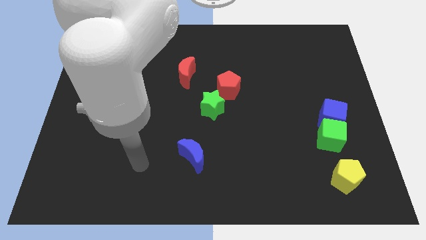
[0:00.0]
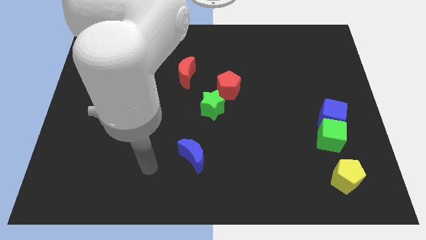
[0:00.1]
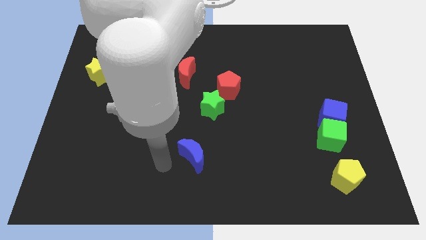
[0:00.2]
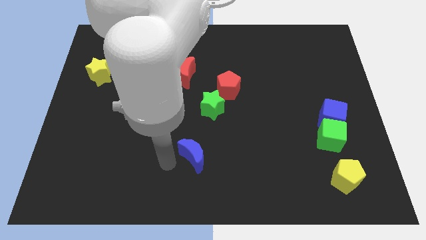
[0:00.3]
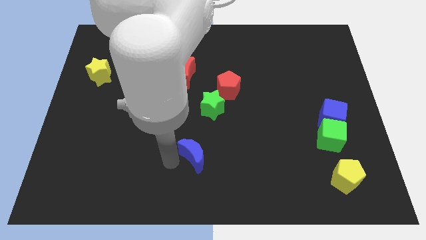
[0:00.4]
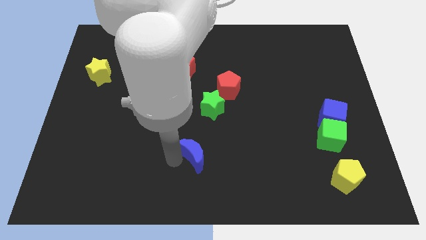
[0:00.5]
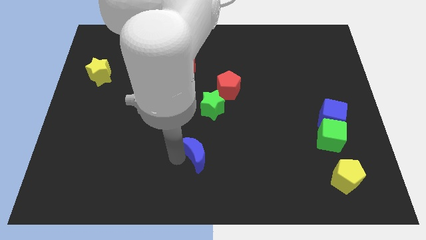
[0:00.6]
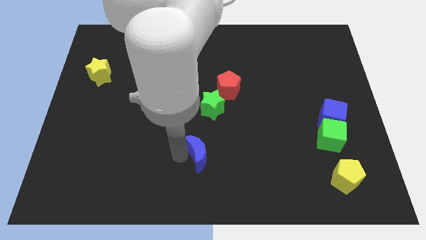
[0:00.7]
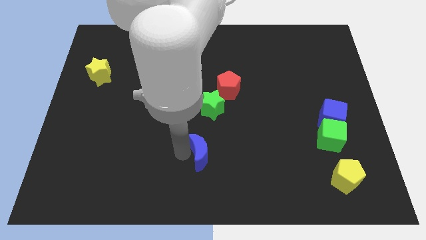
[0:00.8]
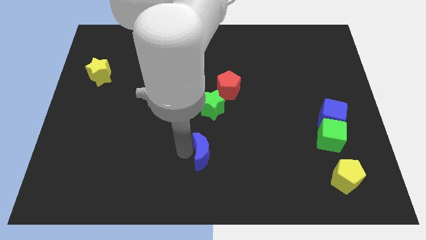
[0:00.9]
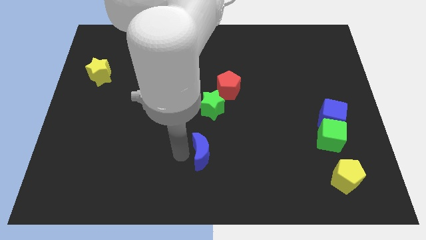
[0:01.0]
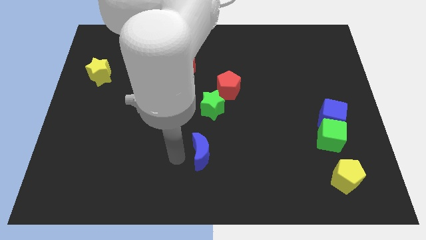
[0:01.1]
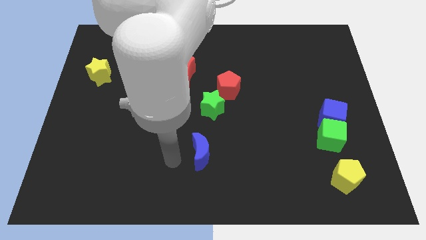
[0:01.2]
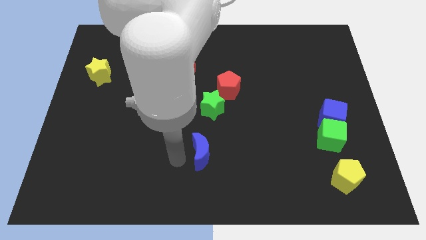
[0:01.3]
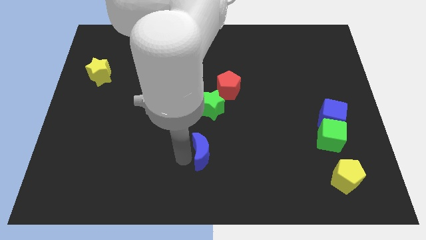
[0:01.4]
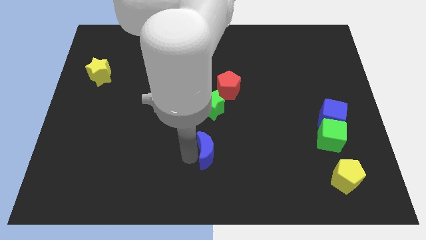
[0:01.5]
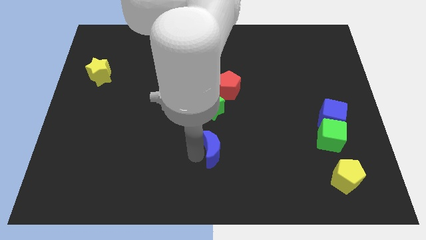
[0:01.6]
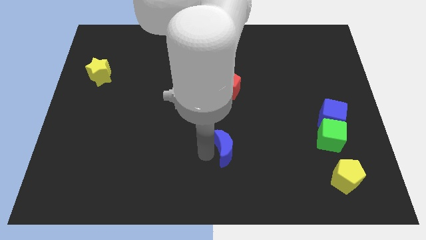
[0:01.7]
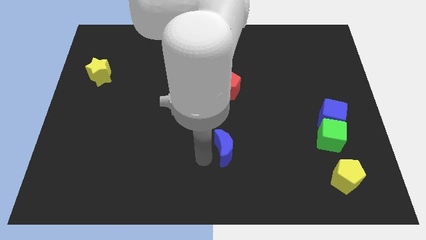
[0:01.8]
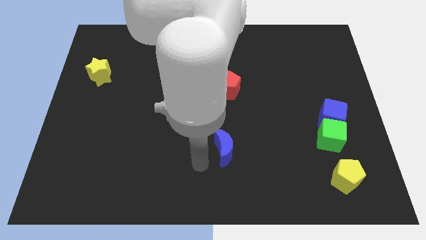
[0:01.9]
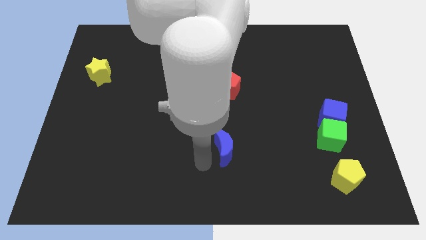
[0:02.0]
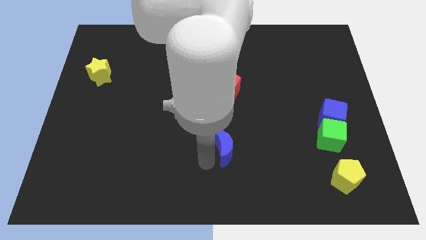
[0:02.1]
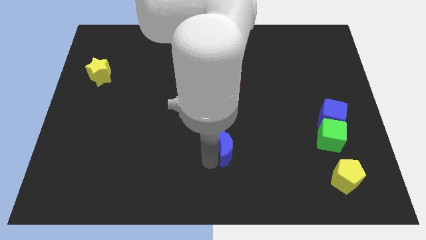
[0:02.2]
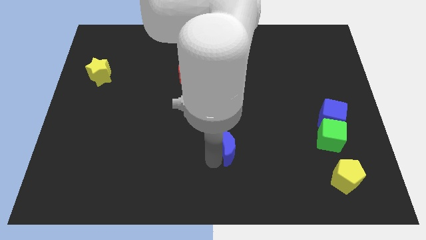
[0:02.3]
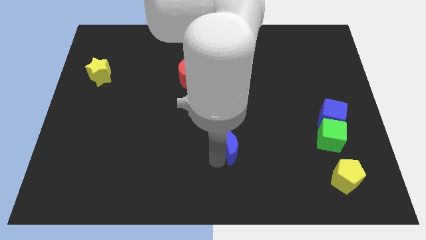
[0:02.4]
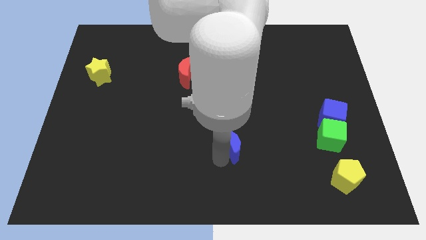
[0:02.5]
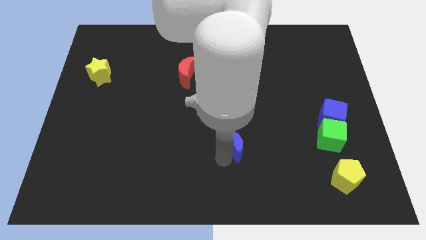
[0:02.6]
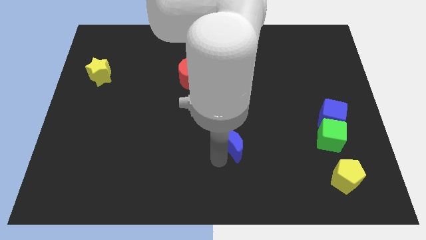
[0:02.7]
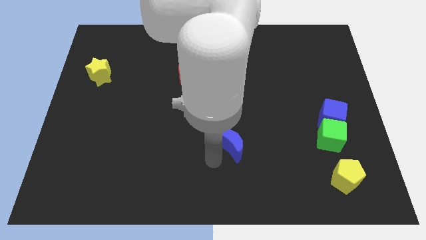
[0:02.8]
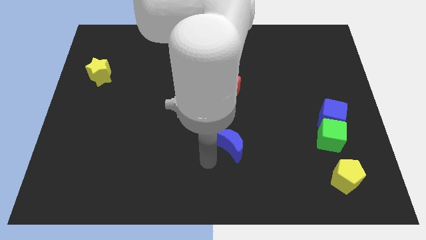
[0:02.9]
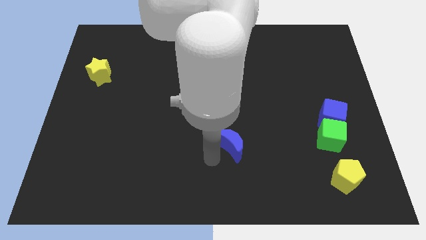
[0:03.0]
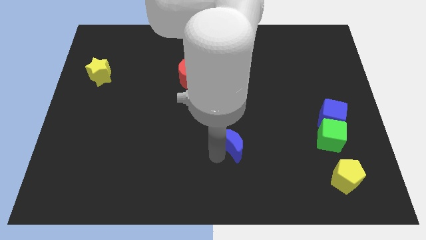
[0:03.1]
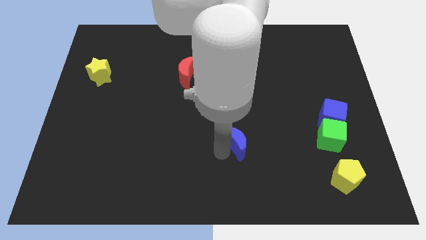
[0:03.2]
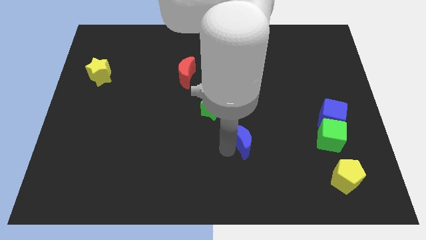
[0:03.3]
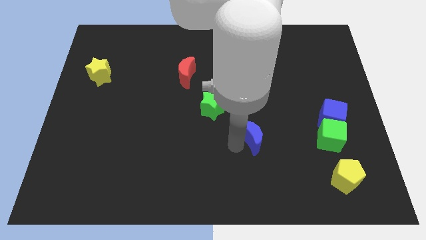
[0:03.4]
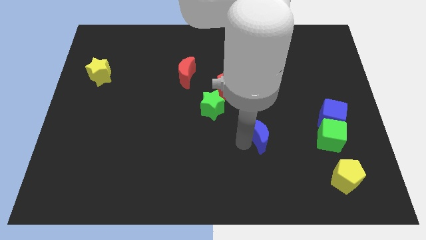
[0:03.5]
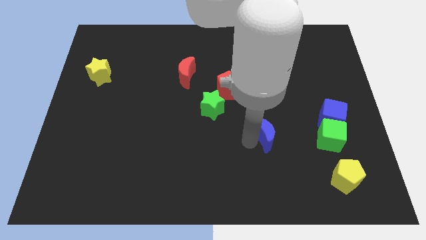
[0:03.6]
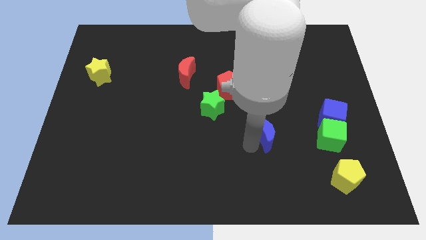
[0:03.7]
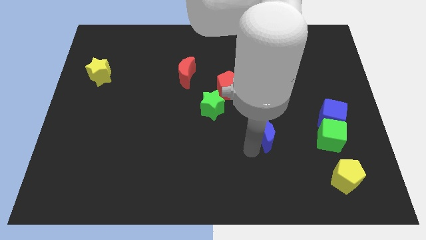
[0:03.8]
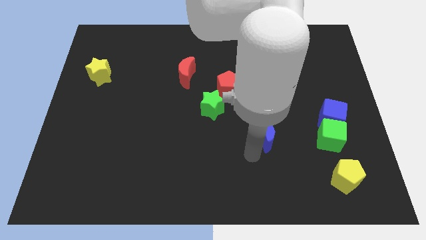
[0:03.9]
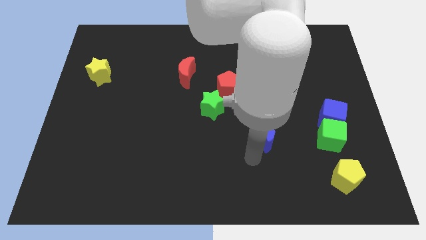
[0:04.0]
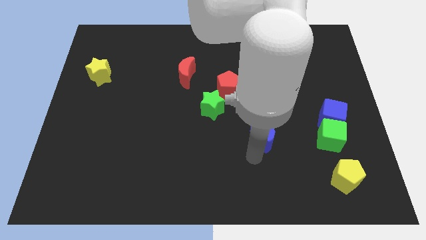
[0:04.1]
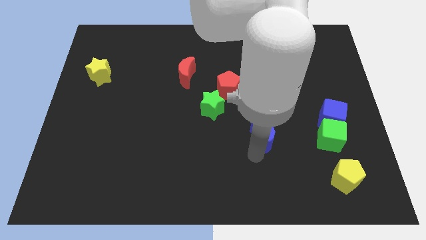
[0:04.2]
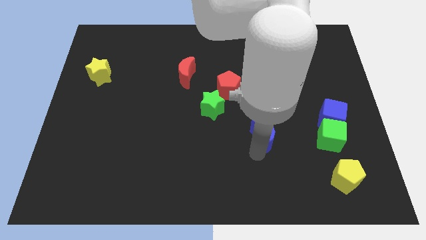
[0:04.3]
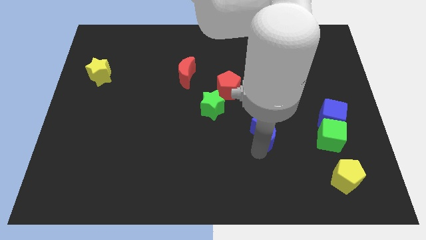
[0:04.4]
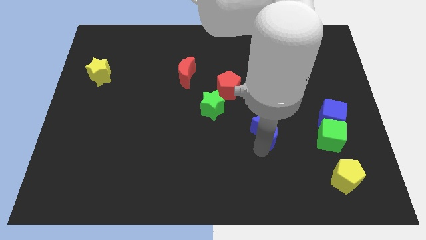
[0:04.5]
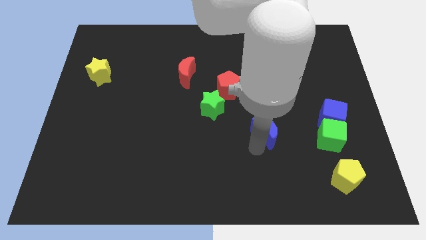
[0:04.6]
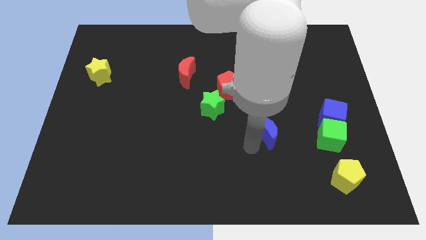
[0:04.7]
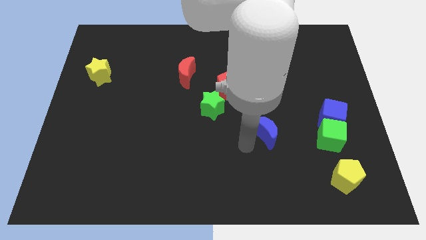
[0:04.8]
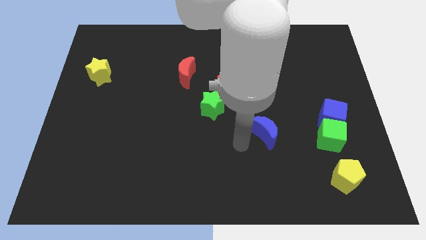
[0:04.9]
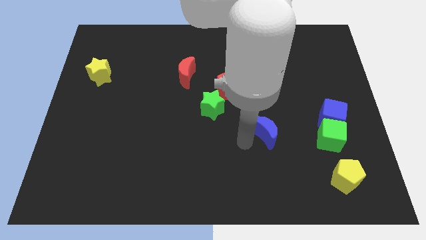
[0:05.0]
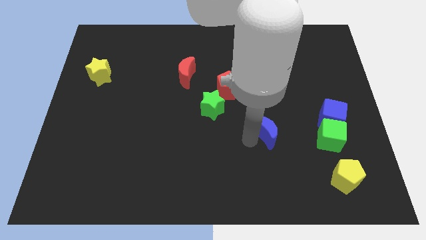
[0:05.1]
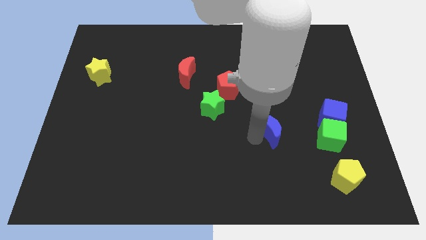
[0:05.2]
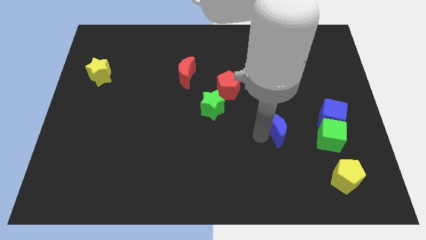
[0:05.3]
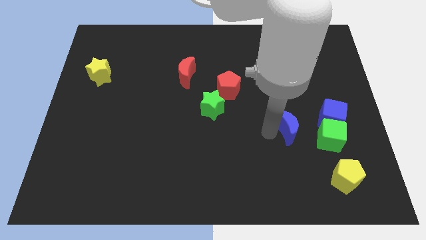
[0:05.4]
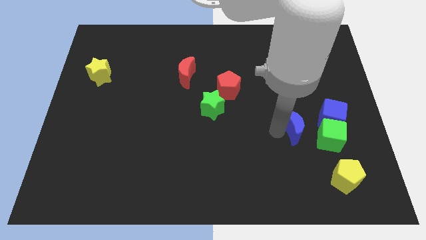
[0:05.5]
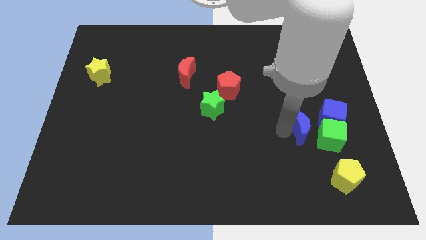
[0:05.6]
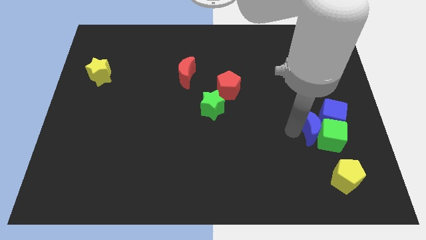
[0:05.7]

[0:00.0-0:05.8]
move the blue moon towards the blue cube

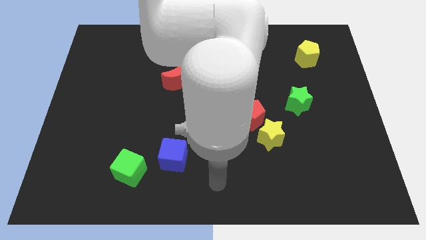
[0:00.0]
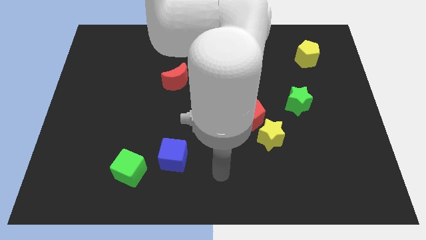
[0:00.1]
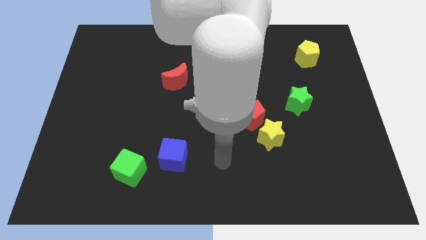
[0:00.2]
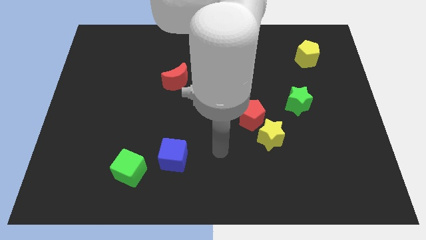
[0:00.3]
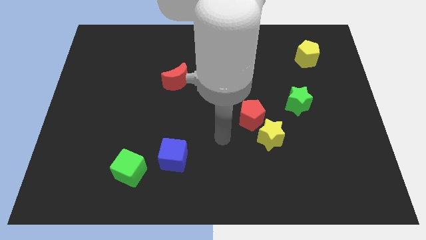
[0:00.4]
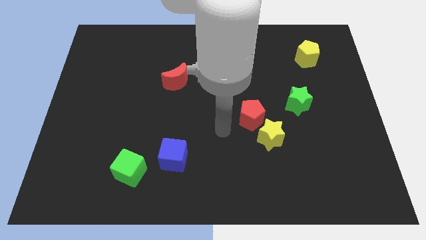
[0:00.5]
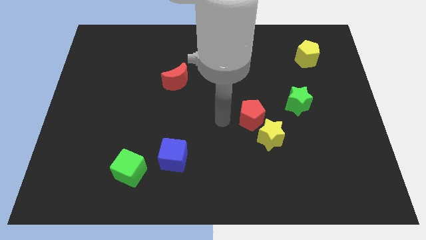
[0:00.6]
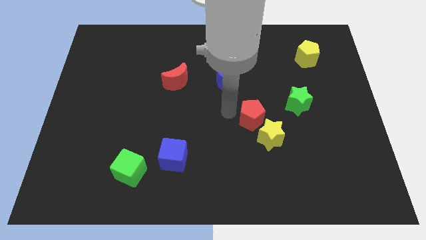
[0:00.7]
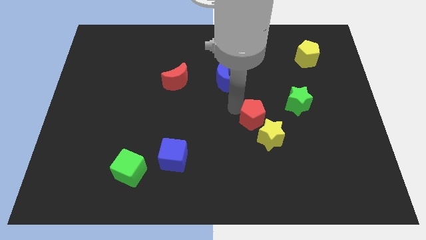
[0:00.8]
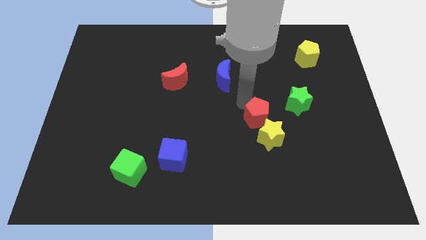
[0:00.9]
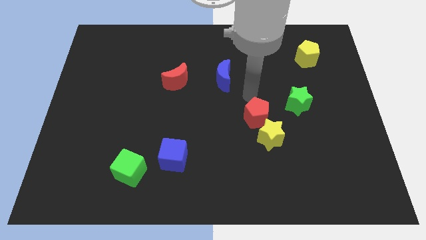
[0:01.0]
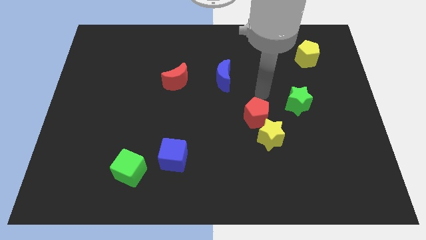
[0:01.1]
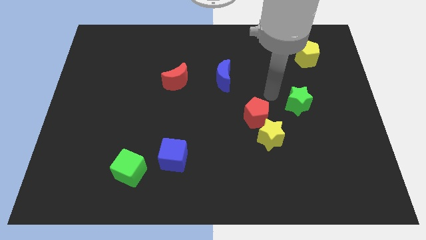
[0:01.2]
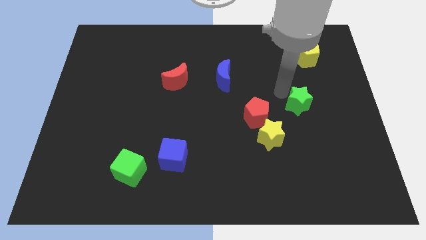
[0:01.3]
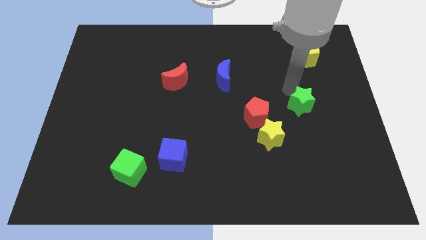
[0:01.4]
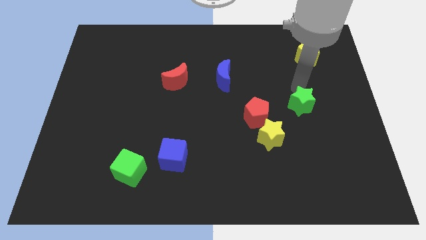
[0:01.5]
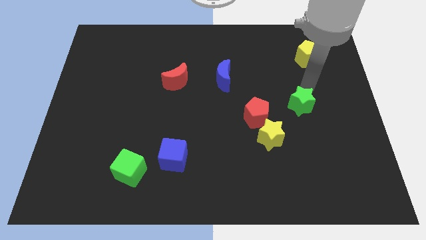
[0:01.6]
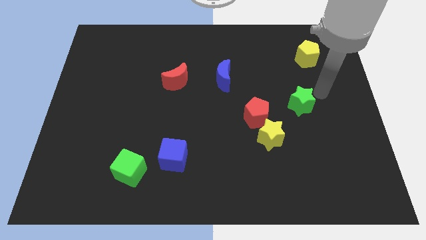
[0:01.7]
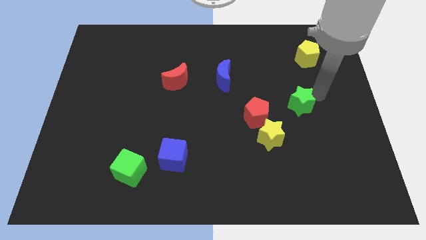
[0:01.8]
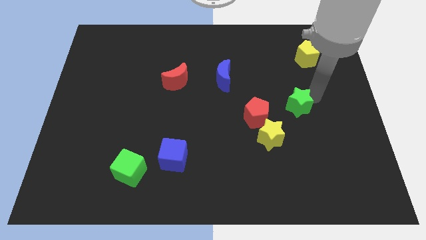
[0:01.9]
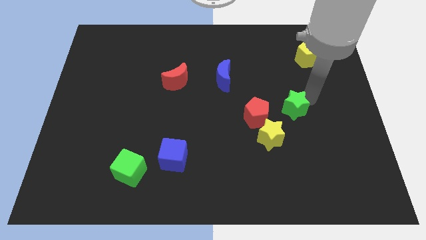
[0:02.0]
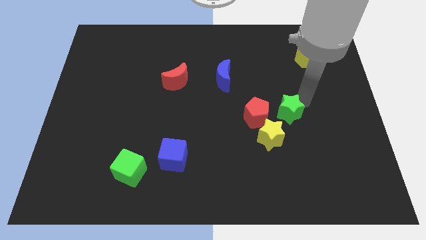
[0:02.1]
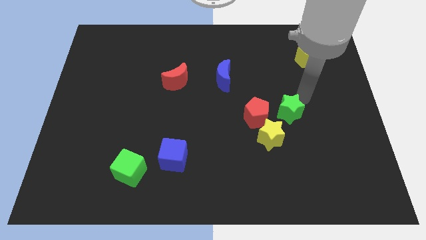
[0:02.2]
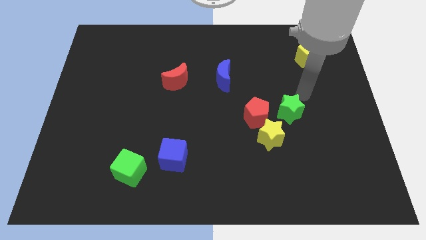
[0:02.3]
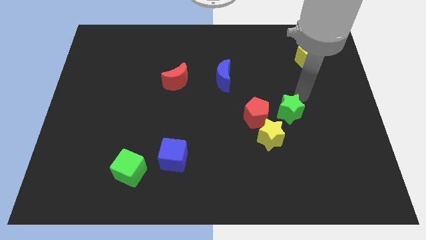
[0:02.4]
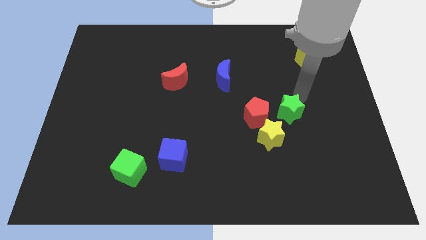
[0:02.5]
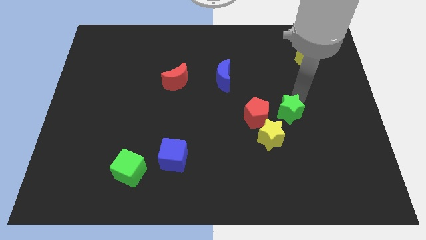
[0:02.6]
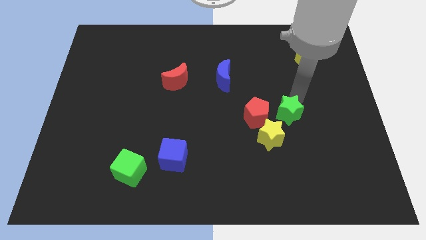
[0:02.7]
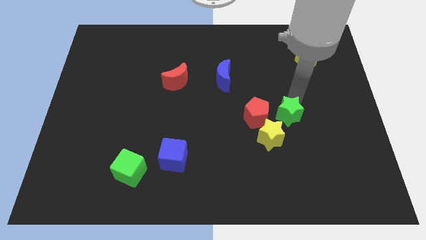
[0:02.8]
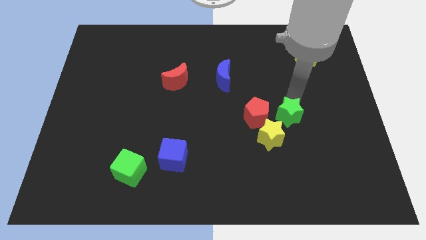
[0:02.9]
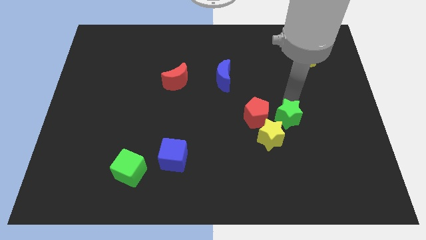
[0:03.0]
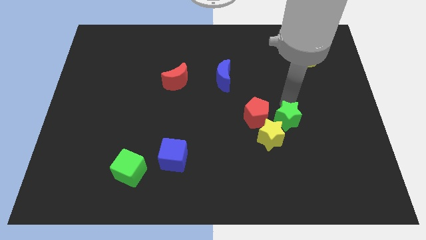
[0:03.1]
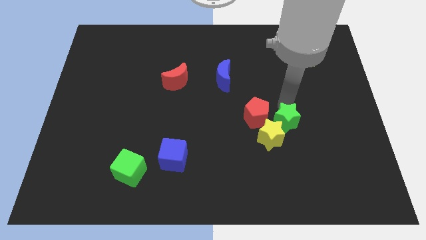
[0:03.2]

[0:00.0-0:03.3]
move the green star to the yellow star
